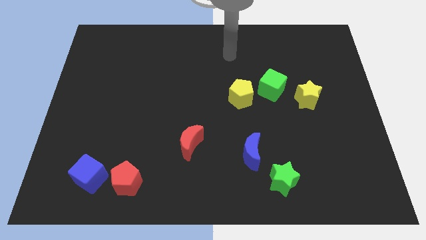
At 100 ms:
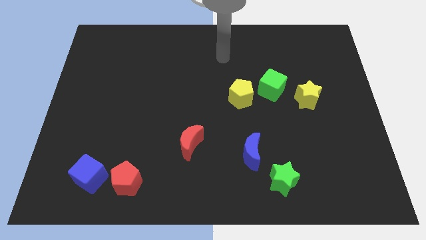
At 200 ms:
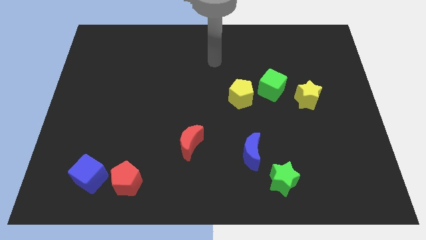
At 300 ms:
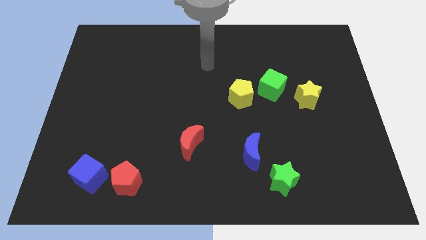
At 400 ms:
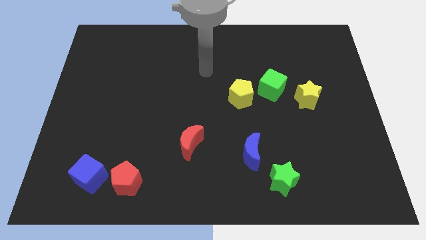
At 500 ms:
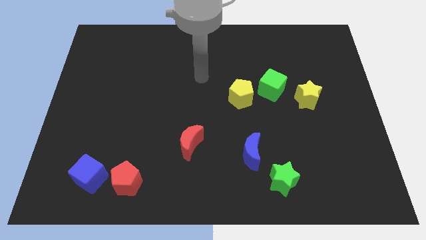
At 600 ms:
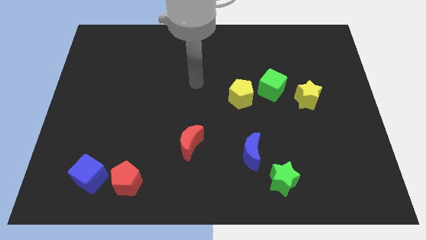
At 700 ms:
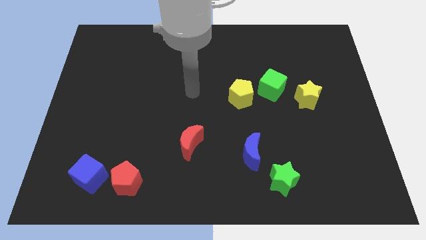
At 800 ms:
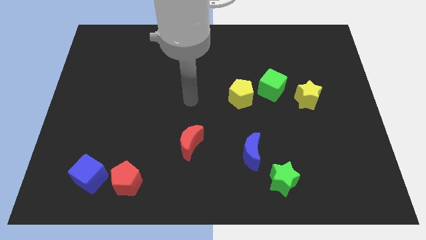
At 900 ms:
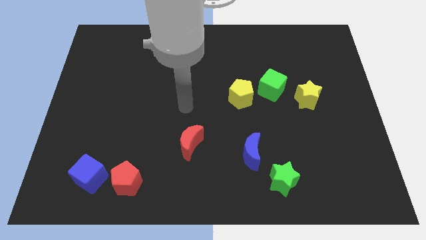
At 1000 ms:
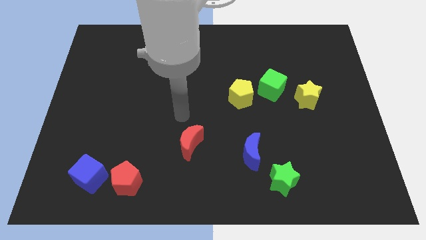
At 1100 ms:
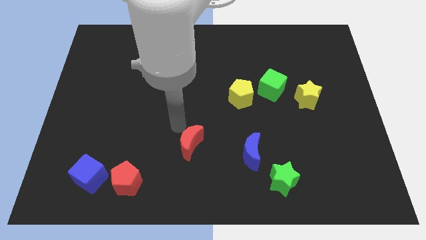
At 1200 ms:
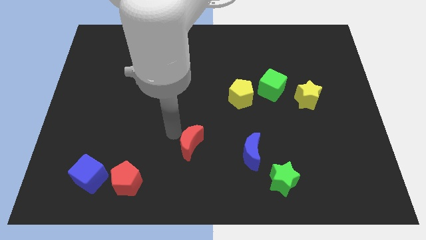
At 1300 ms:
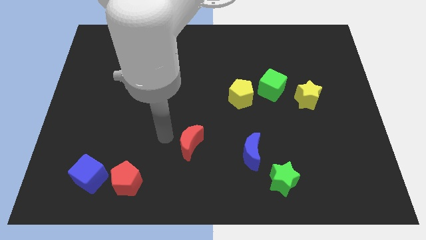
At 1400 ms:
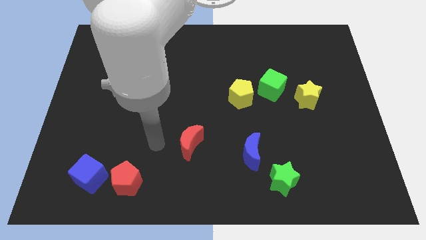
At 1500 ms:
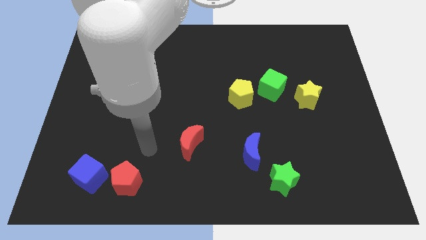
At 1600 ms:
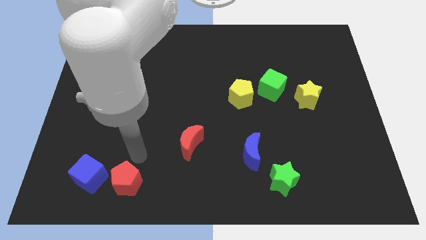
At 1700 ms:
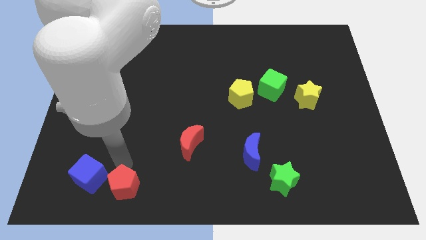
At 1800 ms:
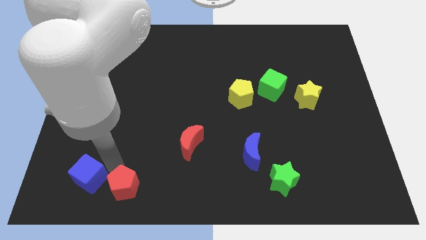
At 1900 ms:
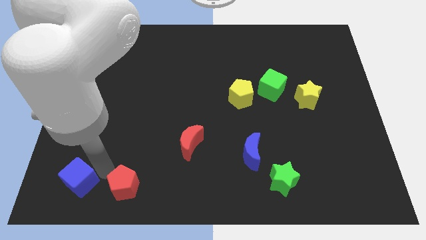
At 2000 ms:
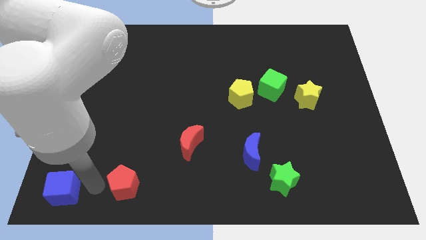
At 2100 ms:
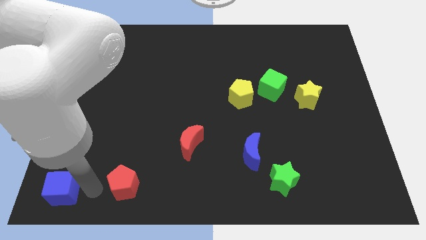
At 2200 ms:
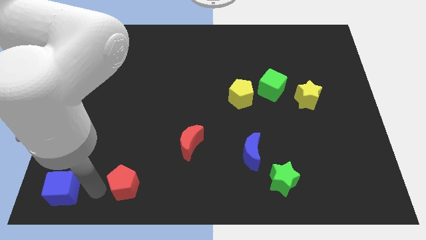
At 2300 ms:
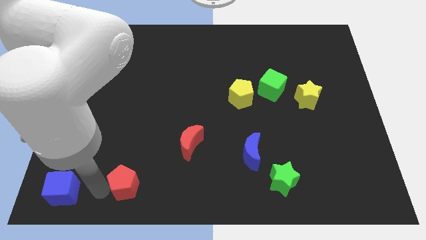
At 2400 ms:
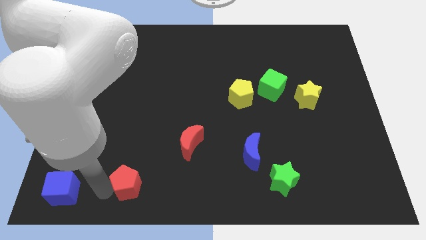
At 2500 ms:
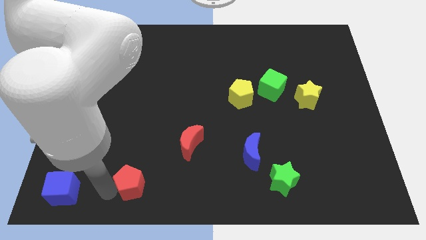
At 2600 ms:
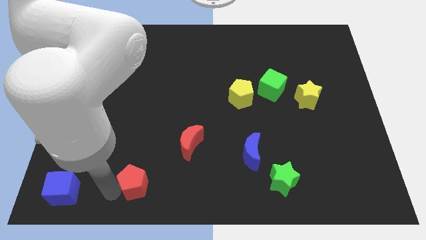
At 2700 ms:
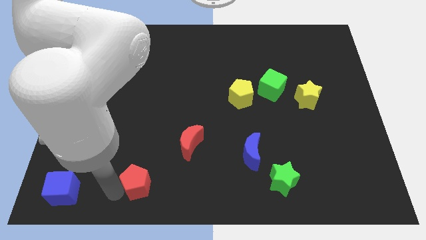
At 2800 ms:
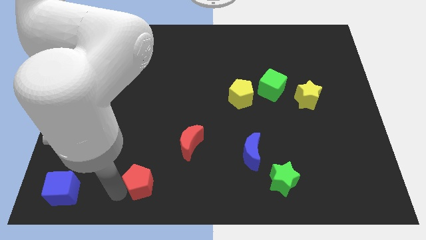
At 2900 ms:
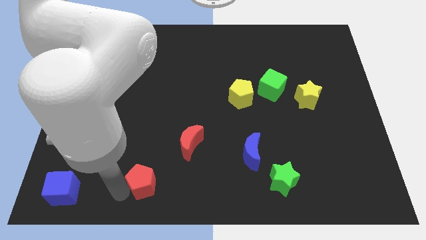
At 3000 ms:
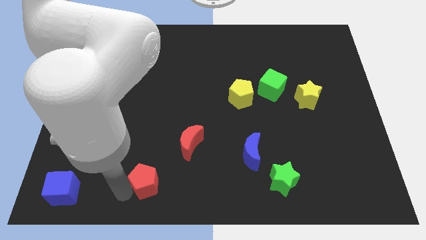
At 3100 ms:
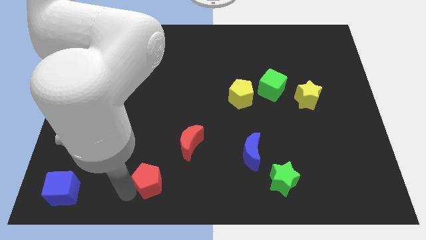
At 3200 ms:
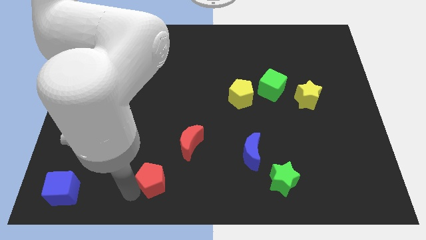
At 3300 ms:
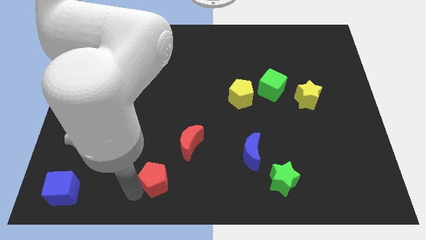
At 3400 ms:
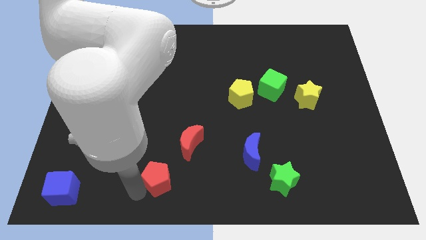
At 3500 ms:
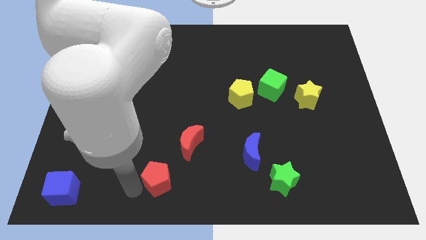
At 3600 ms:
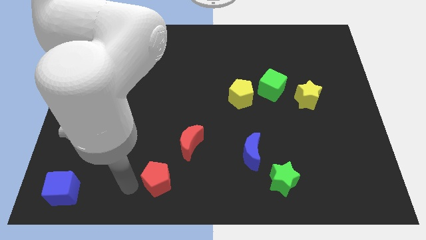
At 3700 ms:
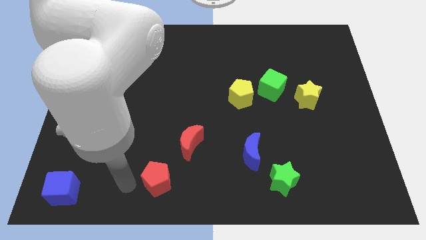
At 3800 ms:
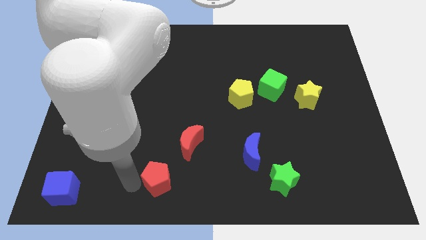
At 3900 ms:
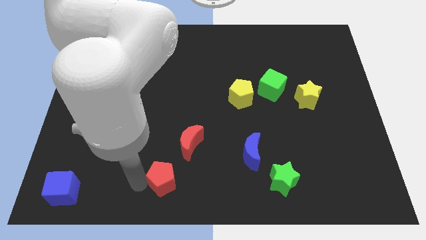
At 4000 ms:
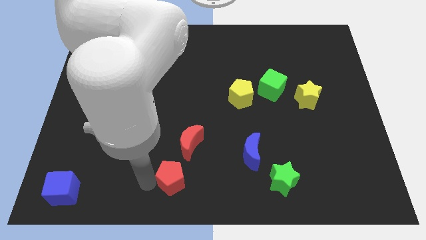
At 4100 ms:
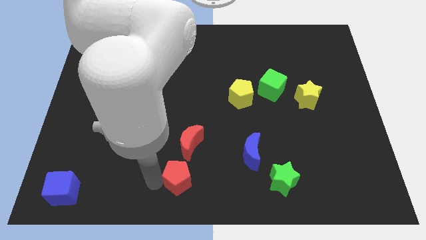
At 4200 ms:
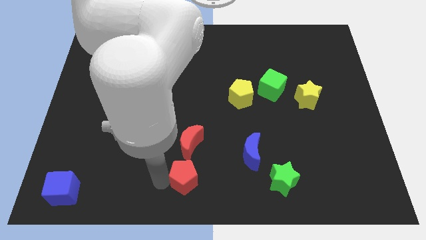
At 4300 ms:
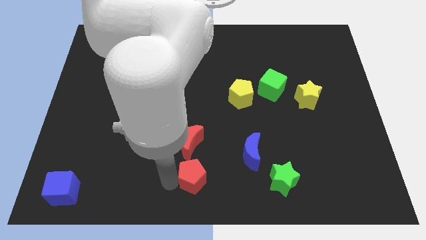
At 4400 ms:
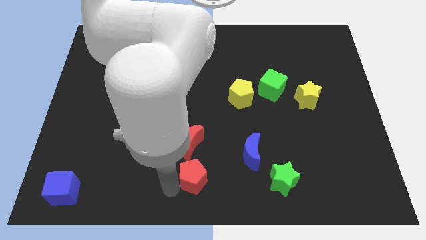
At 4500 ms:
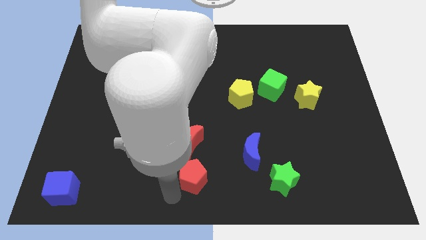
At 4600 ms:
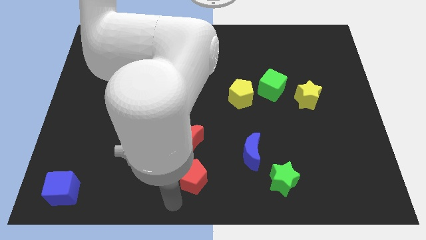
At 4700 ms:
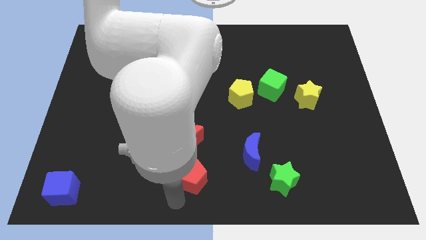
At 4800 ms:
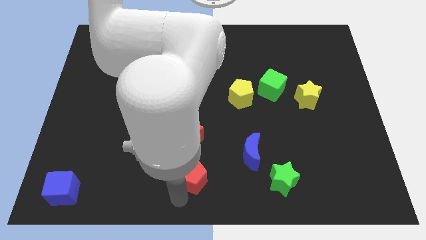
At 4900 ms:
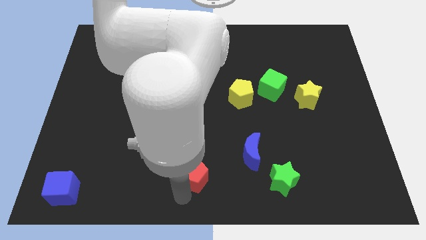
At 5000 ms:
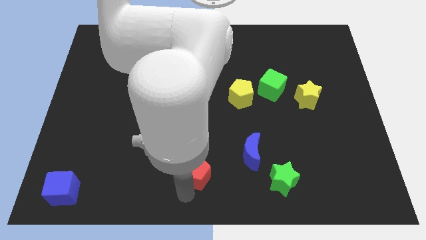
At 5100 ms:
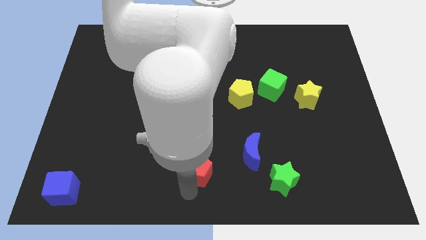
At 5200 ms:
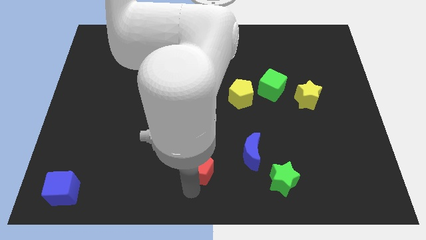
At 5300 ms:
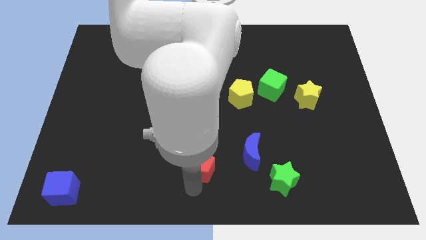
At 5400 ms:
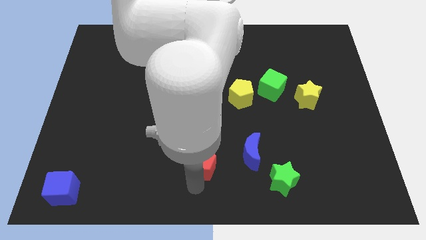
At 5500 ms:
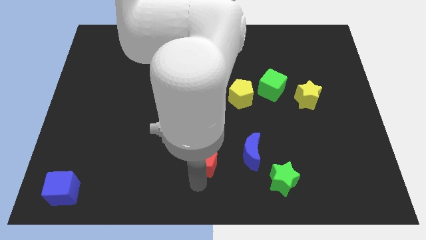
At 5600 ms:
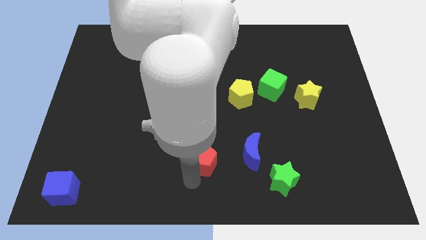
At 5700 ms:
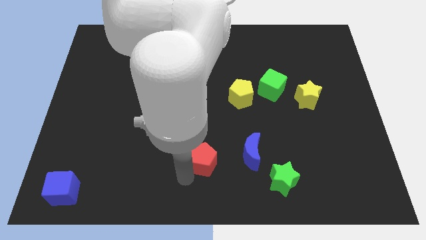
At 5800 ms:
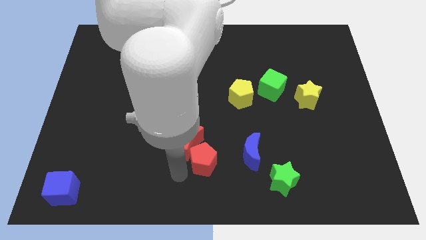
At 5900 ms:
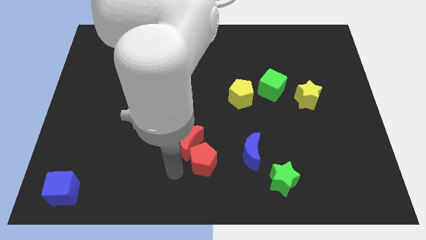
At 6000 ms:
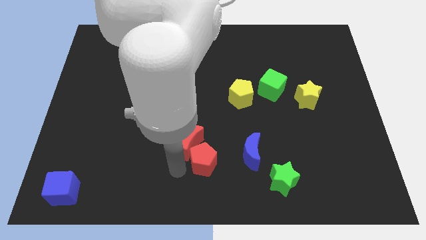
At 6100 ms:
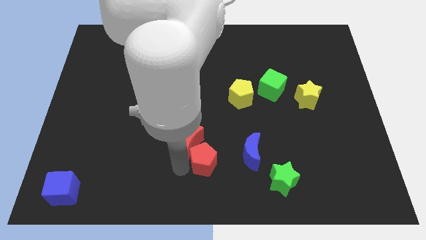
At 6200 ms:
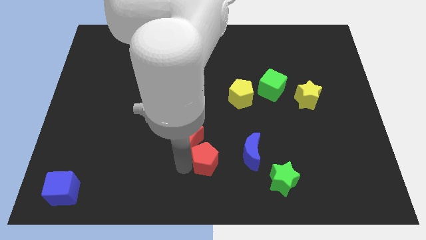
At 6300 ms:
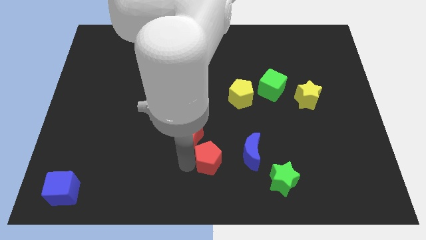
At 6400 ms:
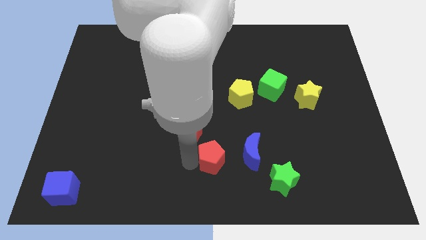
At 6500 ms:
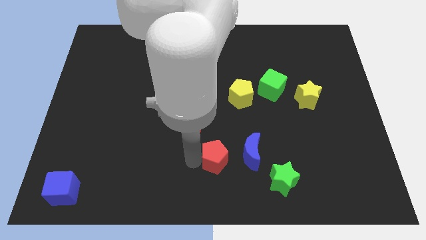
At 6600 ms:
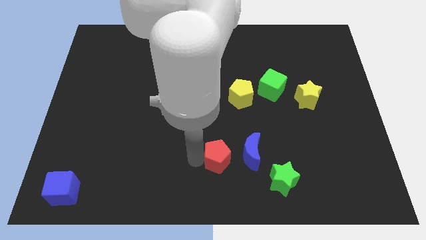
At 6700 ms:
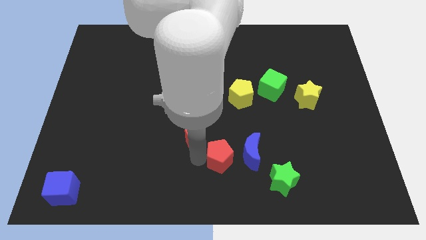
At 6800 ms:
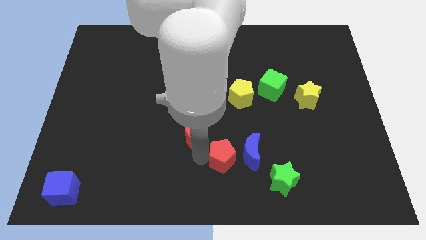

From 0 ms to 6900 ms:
push the red pentagon next to the blue moon

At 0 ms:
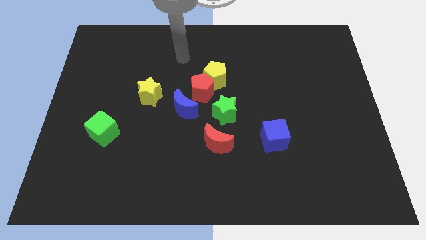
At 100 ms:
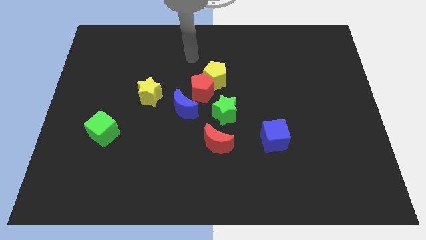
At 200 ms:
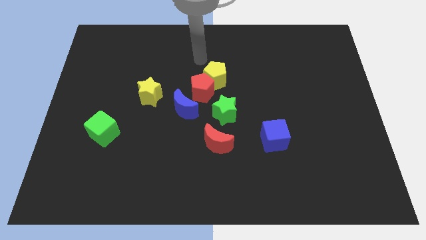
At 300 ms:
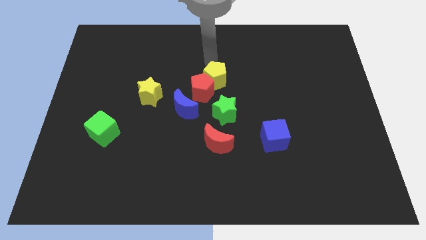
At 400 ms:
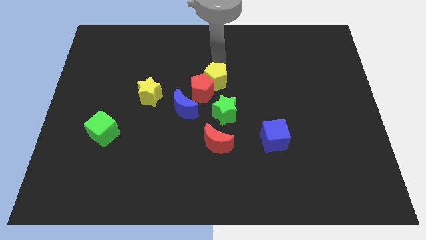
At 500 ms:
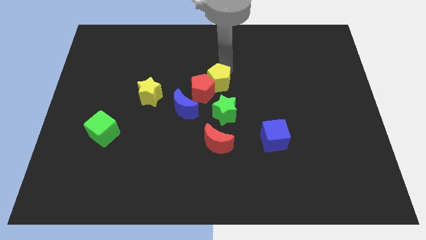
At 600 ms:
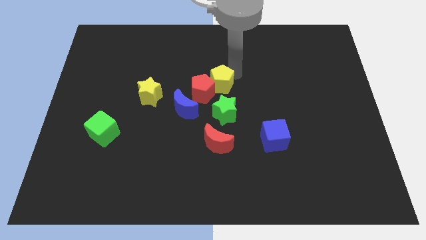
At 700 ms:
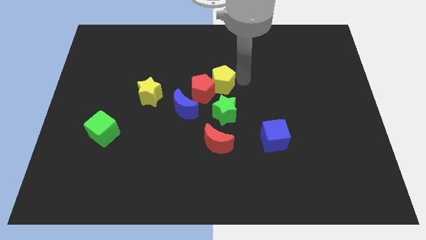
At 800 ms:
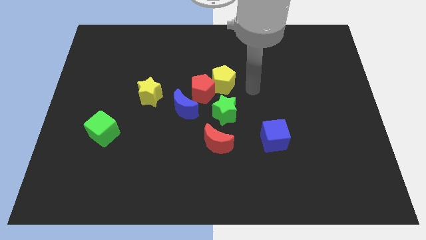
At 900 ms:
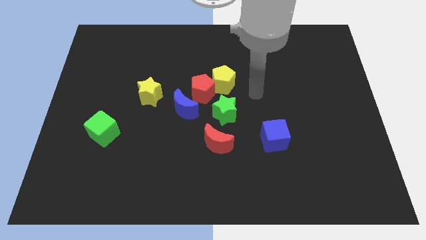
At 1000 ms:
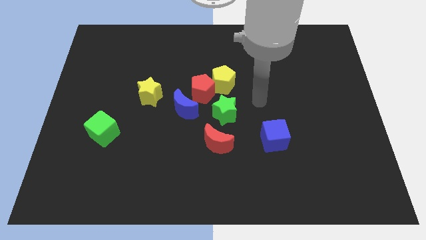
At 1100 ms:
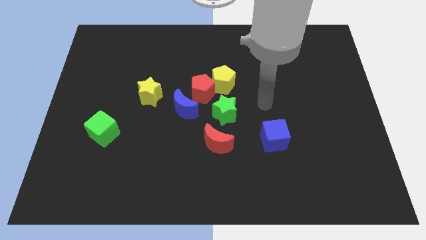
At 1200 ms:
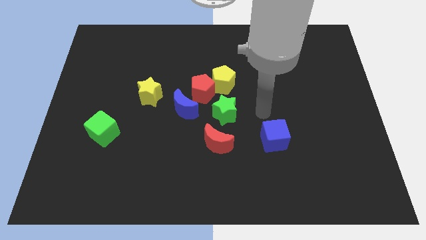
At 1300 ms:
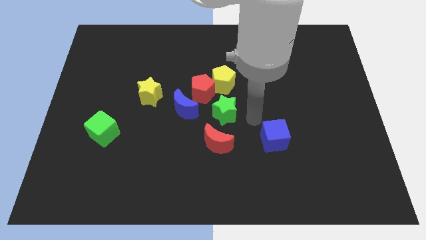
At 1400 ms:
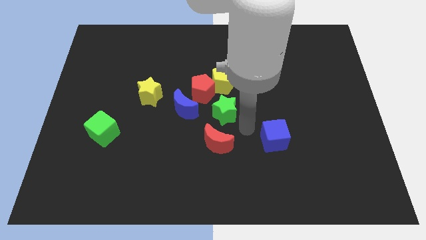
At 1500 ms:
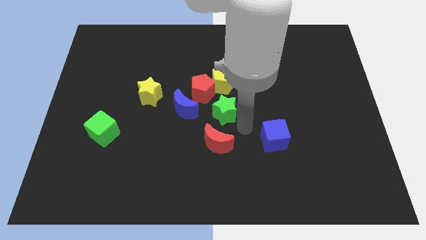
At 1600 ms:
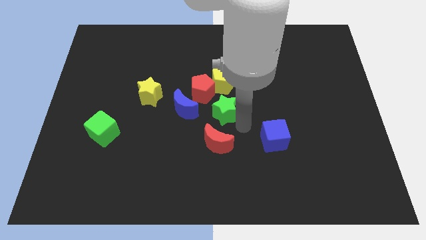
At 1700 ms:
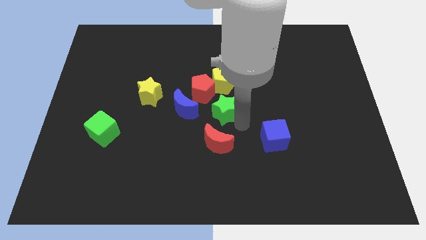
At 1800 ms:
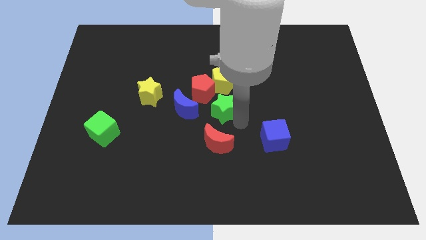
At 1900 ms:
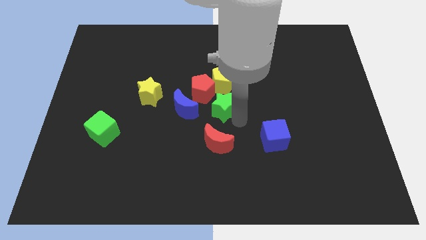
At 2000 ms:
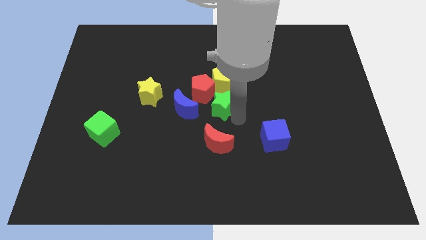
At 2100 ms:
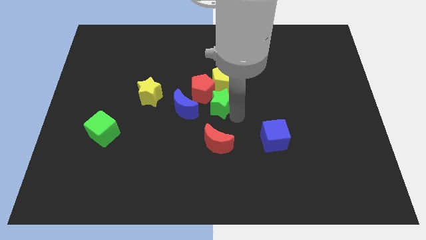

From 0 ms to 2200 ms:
move the green star towards the red pentagon
